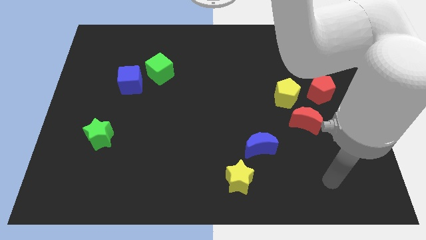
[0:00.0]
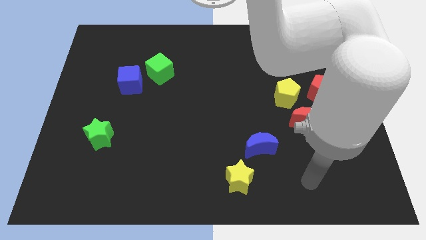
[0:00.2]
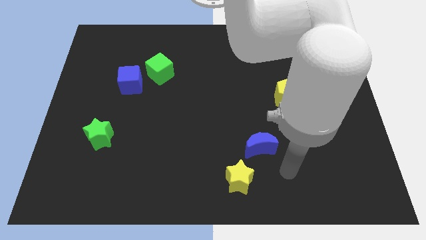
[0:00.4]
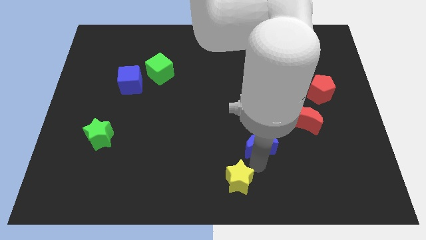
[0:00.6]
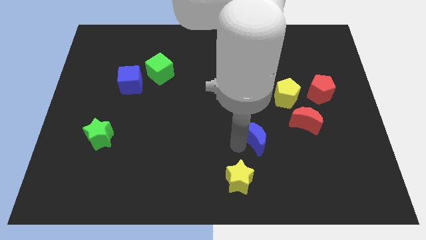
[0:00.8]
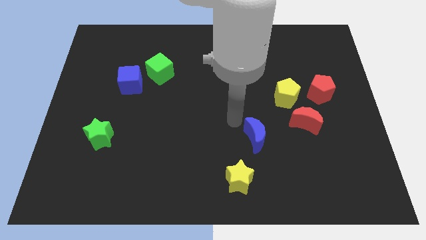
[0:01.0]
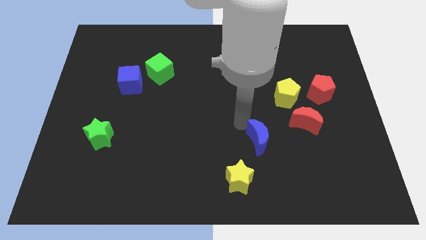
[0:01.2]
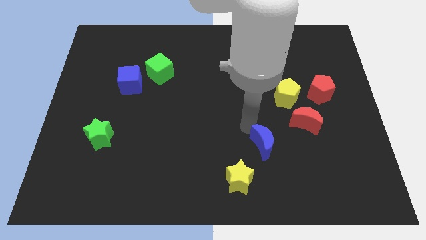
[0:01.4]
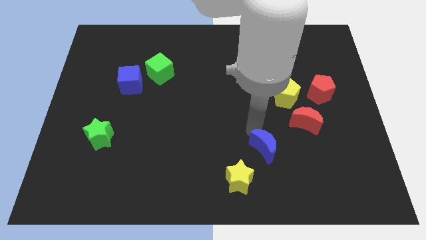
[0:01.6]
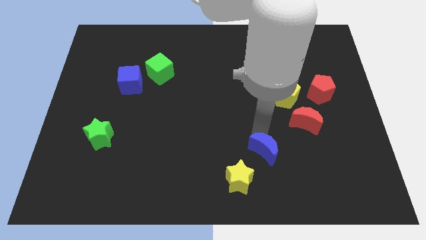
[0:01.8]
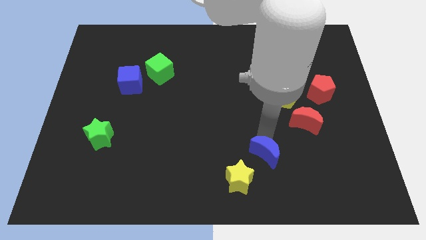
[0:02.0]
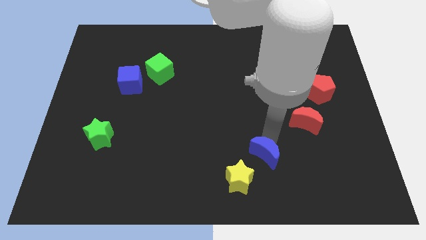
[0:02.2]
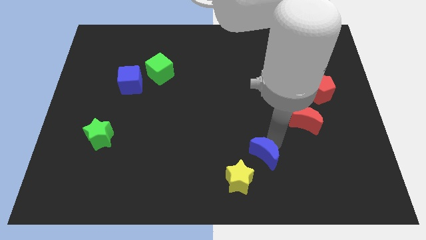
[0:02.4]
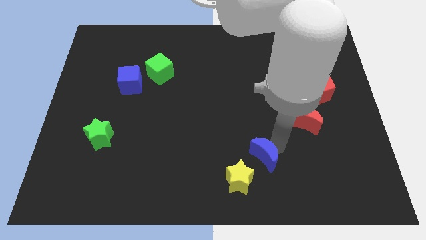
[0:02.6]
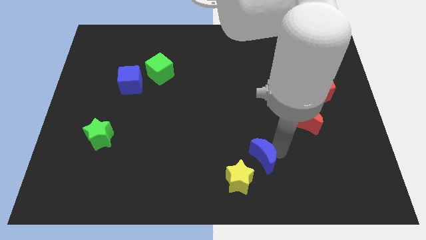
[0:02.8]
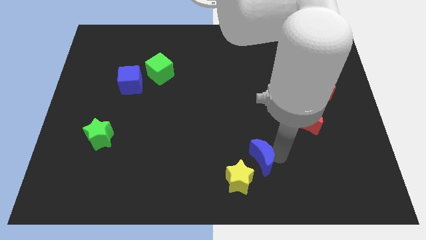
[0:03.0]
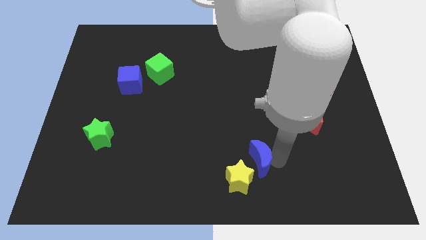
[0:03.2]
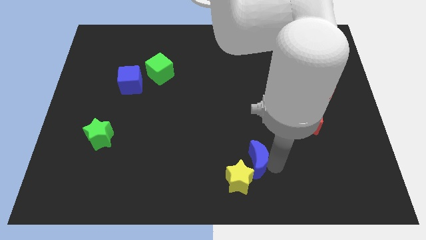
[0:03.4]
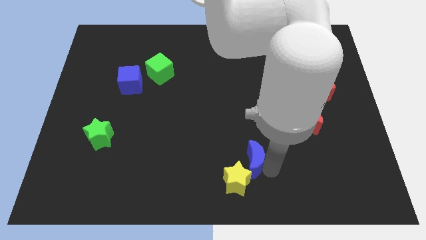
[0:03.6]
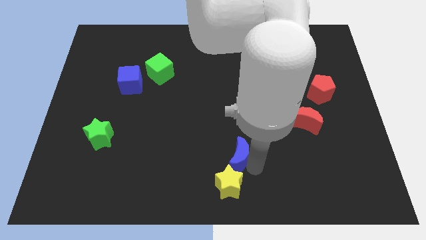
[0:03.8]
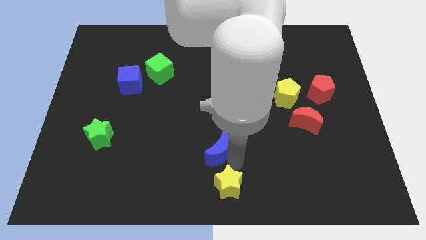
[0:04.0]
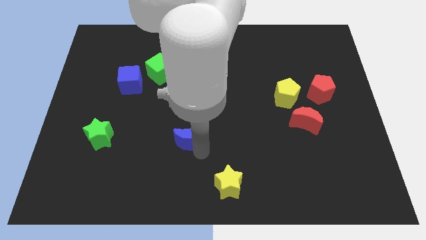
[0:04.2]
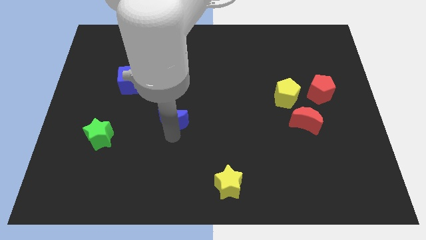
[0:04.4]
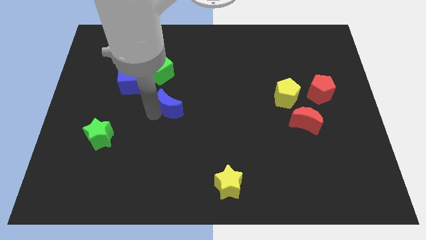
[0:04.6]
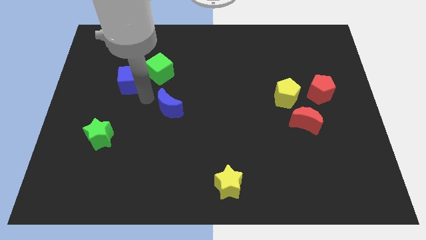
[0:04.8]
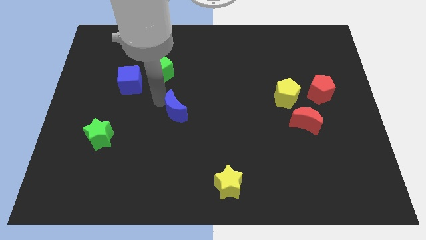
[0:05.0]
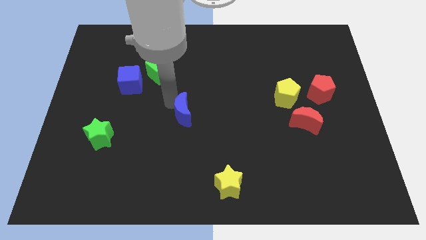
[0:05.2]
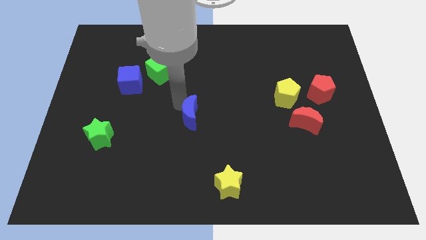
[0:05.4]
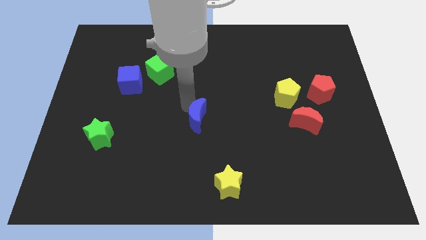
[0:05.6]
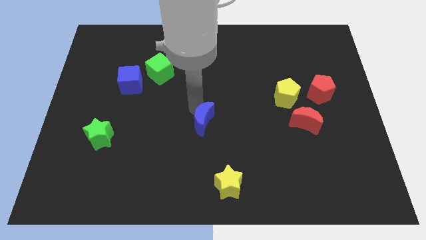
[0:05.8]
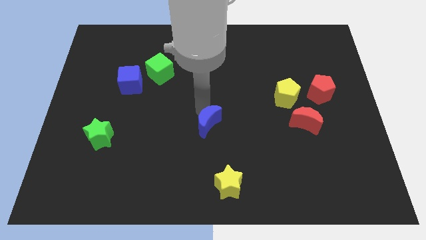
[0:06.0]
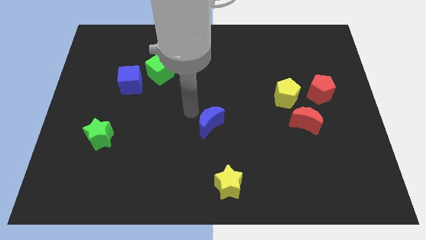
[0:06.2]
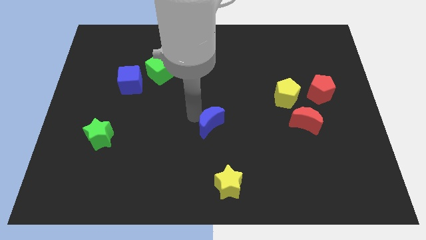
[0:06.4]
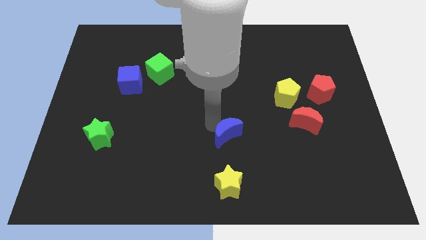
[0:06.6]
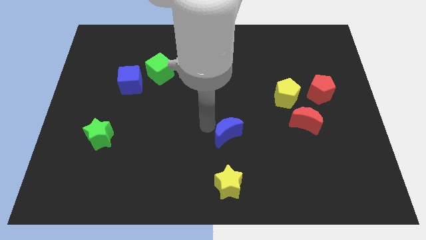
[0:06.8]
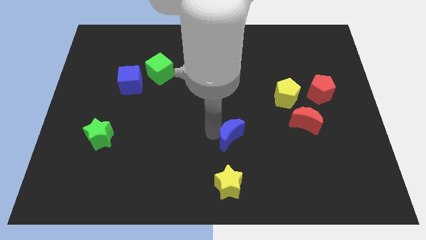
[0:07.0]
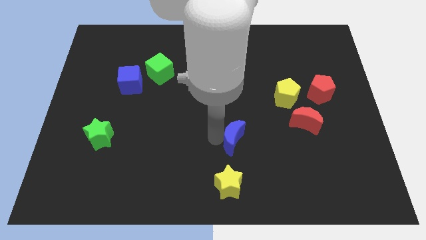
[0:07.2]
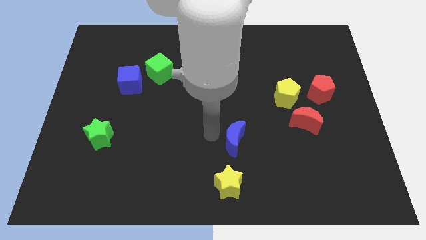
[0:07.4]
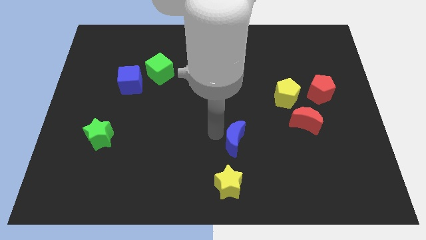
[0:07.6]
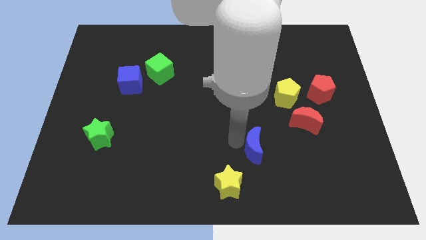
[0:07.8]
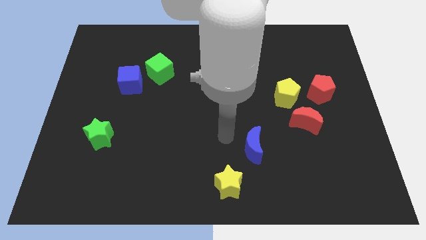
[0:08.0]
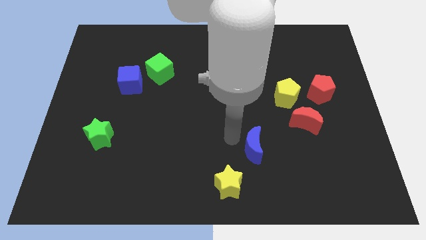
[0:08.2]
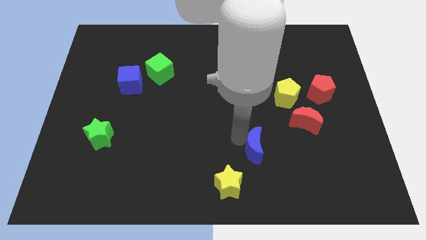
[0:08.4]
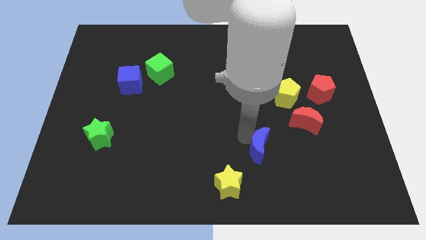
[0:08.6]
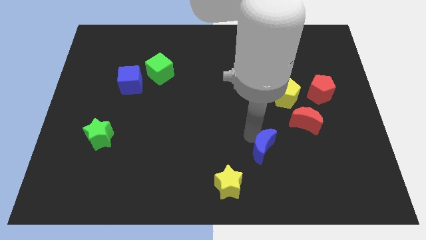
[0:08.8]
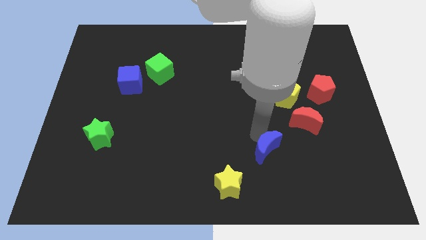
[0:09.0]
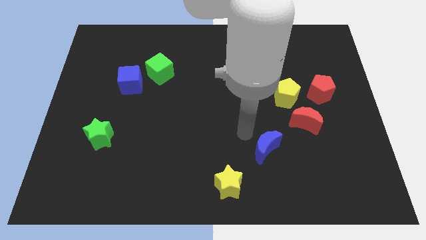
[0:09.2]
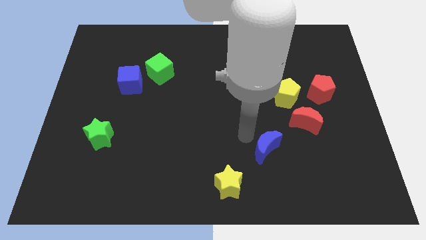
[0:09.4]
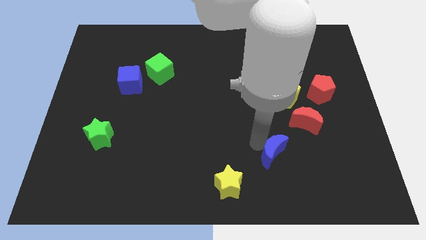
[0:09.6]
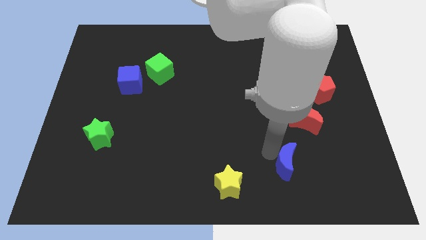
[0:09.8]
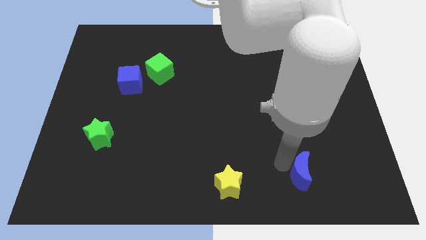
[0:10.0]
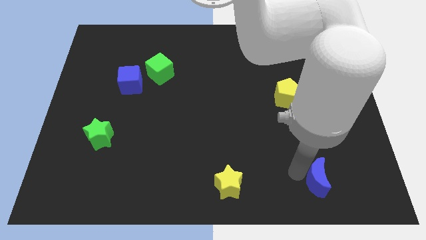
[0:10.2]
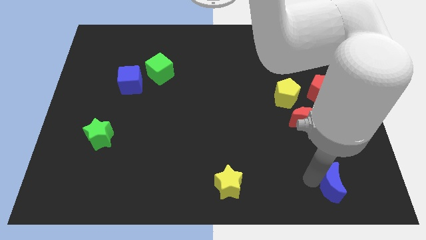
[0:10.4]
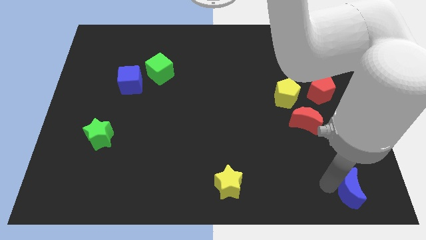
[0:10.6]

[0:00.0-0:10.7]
move the blue moon to the bottom right

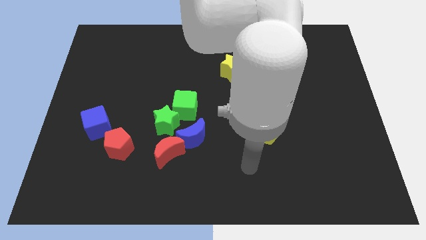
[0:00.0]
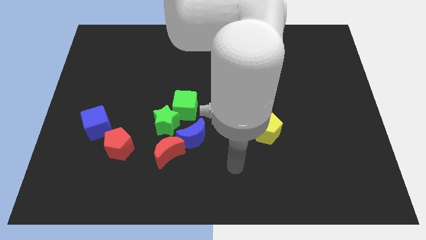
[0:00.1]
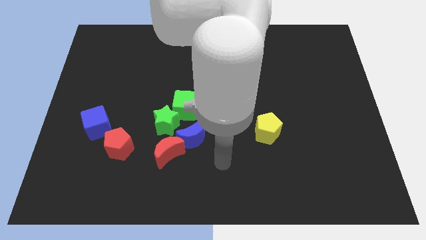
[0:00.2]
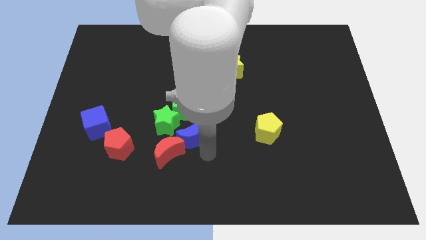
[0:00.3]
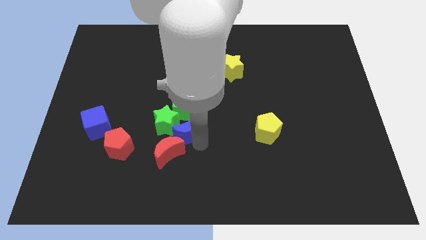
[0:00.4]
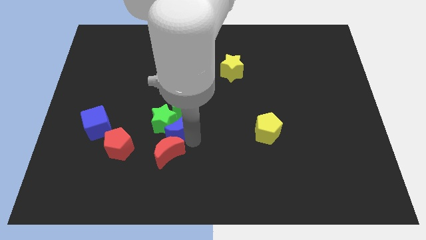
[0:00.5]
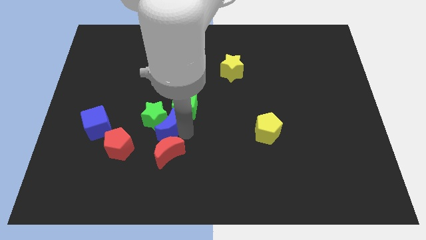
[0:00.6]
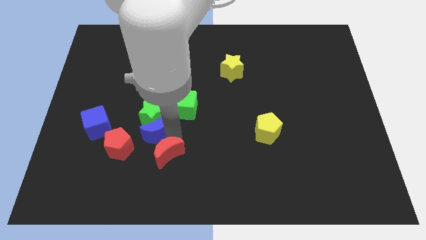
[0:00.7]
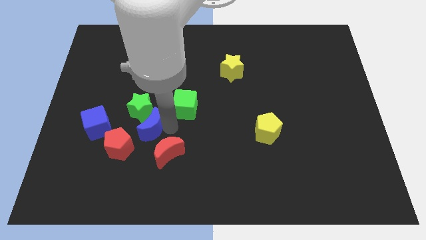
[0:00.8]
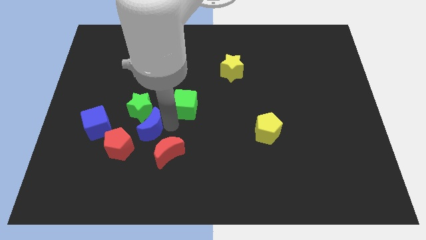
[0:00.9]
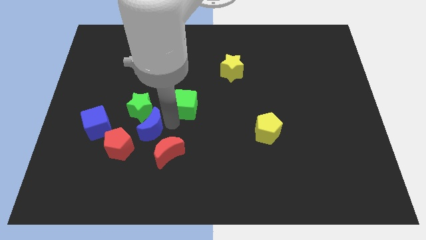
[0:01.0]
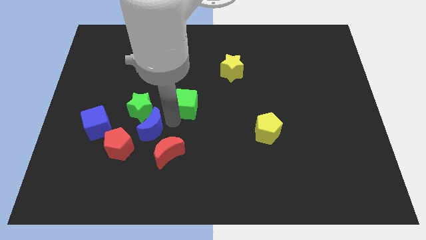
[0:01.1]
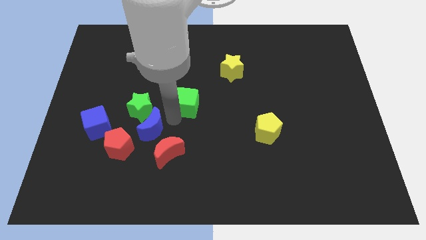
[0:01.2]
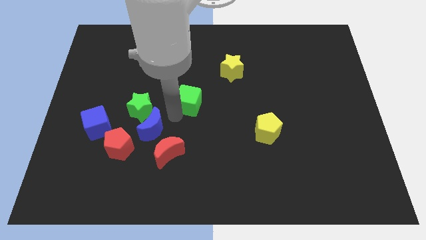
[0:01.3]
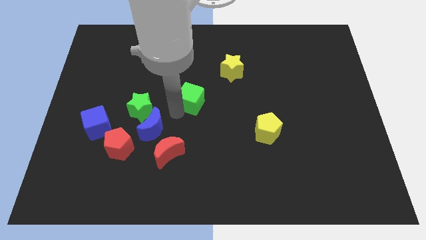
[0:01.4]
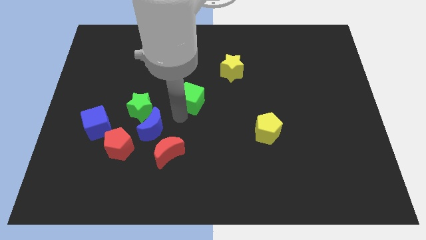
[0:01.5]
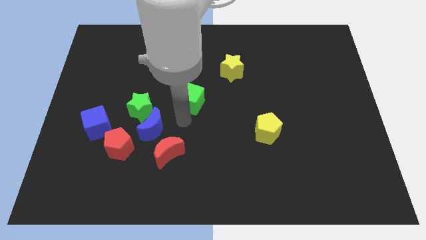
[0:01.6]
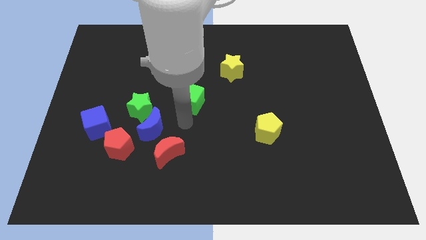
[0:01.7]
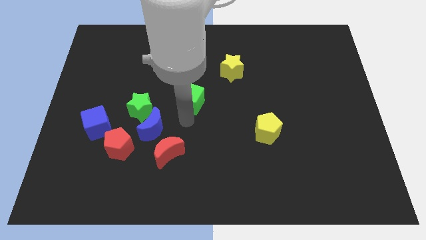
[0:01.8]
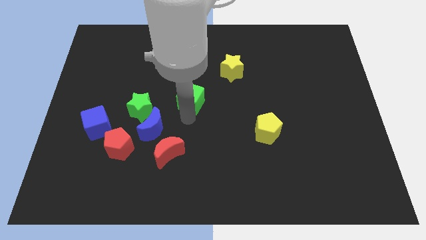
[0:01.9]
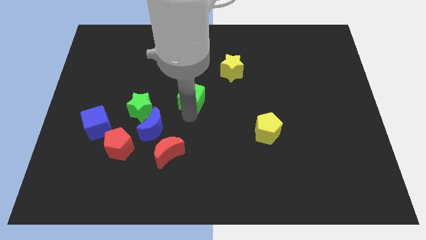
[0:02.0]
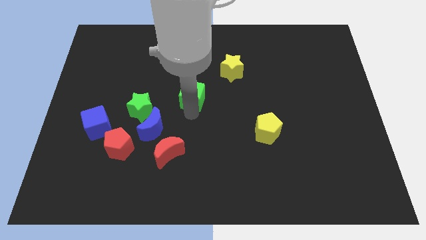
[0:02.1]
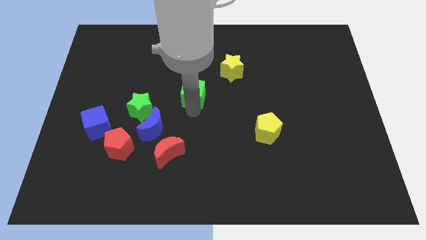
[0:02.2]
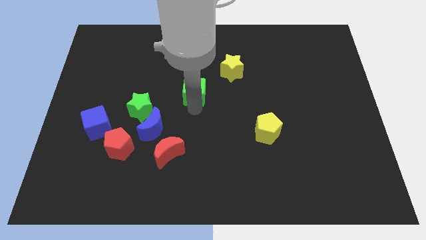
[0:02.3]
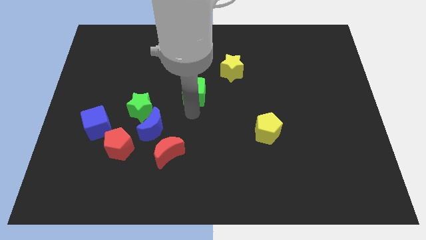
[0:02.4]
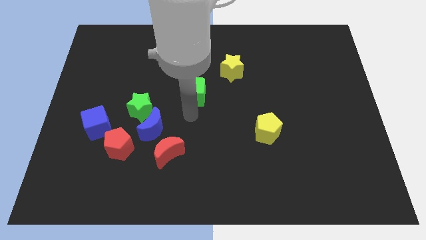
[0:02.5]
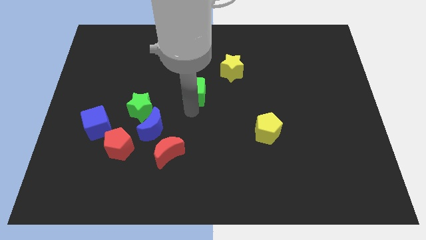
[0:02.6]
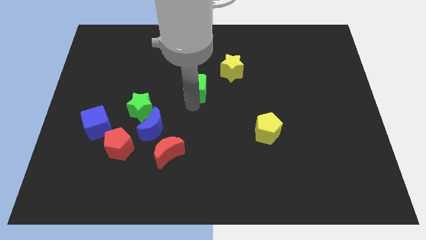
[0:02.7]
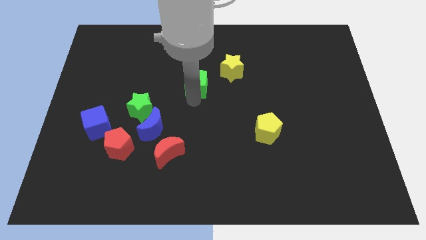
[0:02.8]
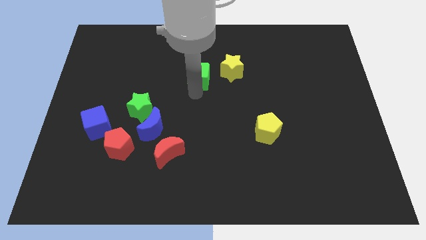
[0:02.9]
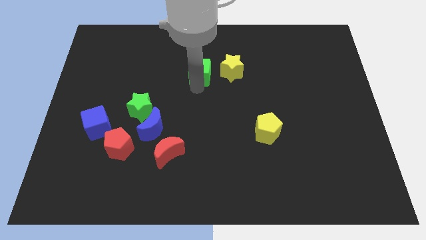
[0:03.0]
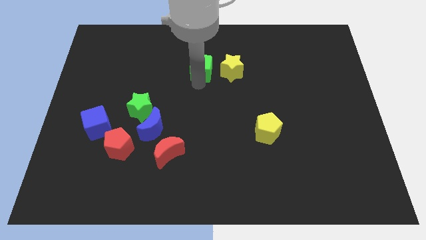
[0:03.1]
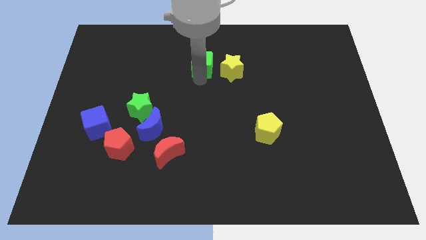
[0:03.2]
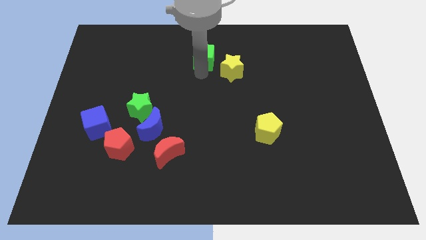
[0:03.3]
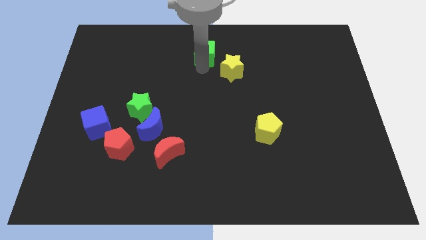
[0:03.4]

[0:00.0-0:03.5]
push the green cube to the top
